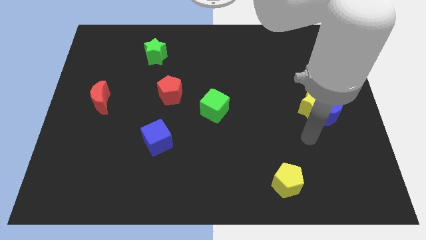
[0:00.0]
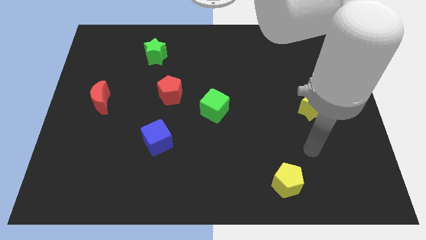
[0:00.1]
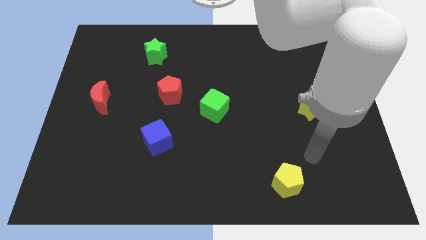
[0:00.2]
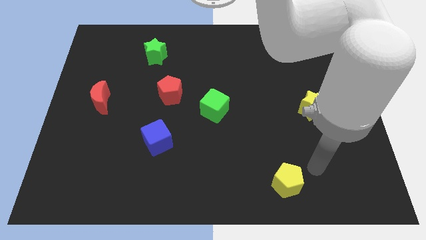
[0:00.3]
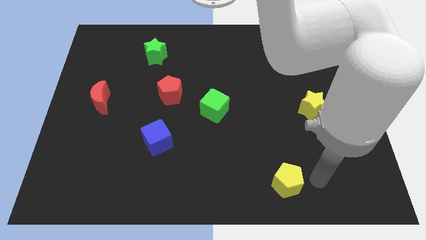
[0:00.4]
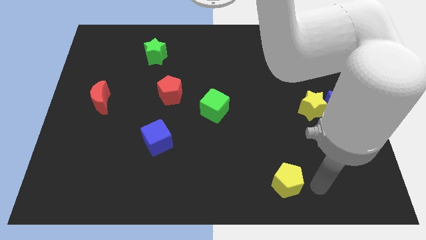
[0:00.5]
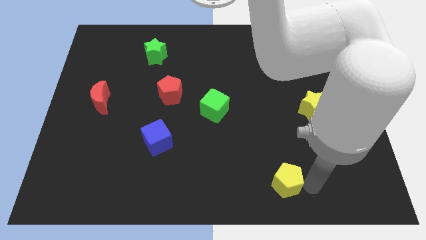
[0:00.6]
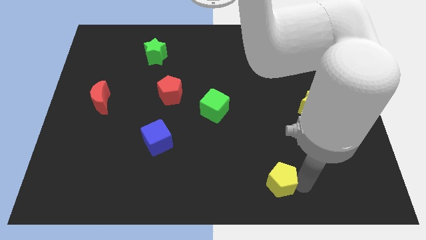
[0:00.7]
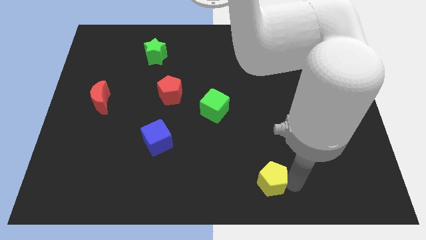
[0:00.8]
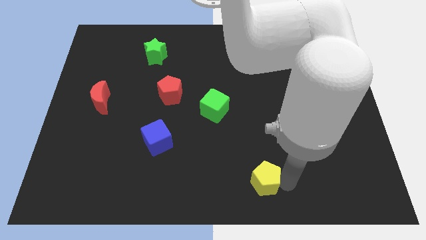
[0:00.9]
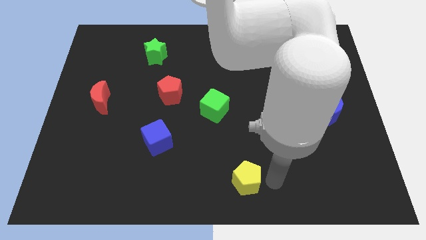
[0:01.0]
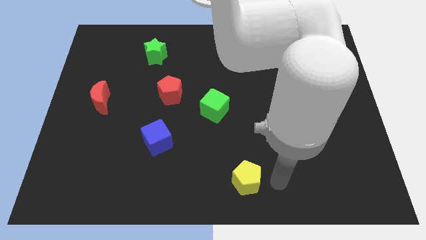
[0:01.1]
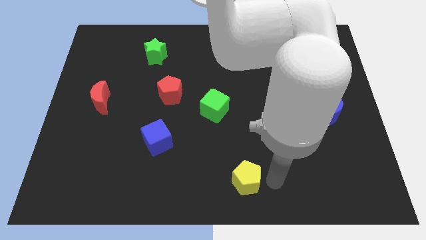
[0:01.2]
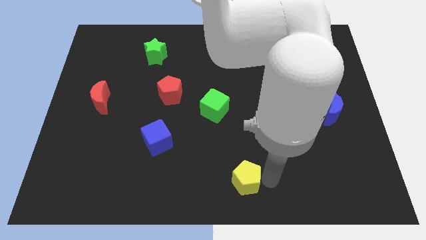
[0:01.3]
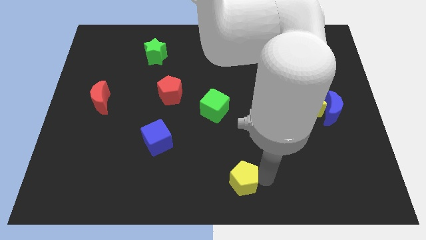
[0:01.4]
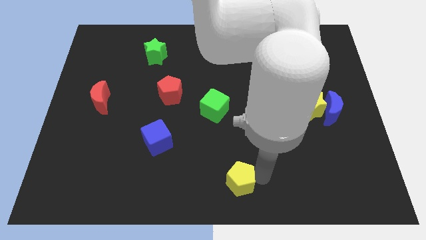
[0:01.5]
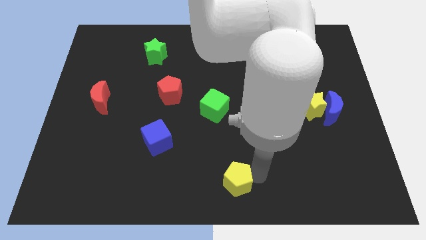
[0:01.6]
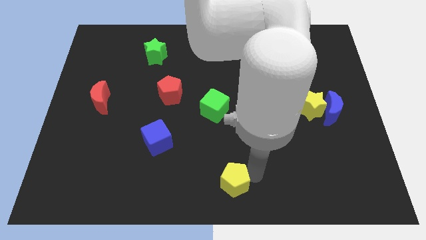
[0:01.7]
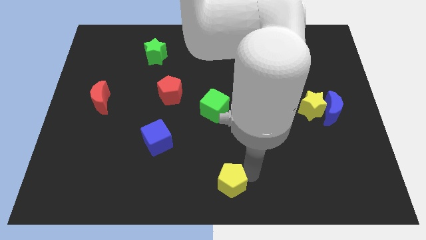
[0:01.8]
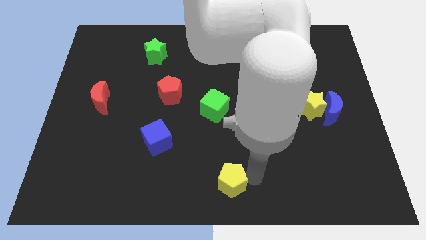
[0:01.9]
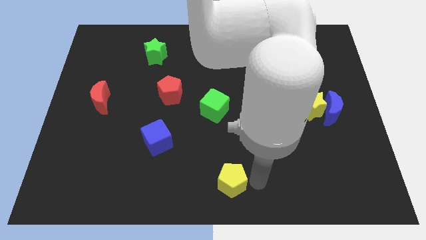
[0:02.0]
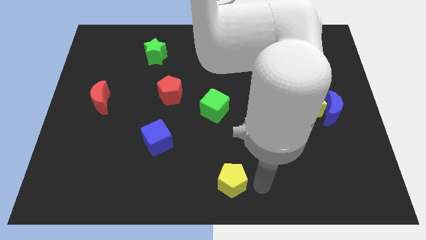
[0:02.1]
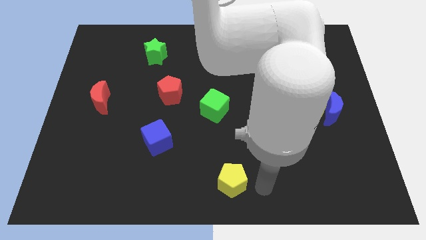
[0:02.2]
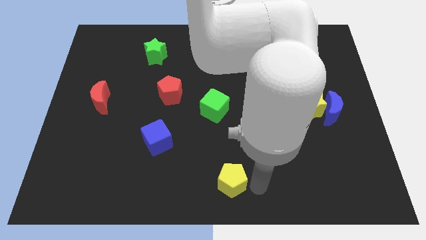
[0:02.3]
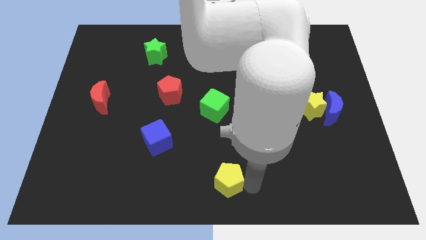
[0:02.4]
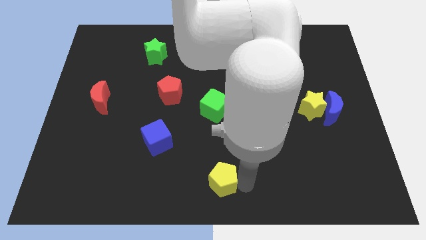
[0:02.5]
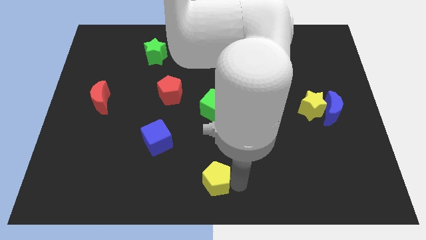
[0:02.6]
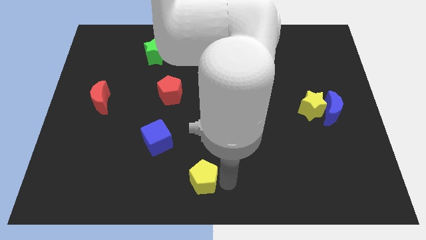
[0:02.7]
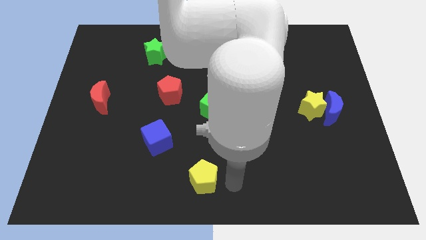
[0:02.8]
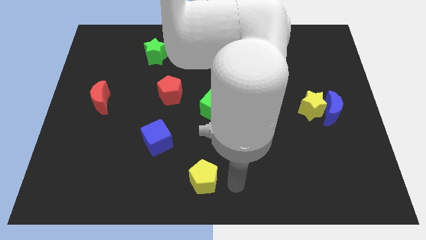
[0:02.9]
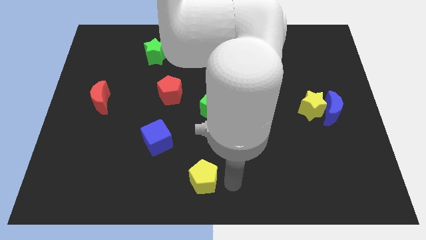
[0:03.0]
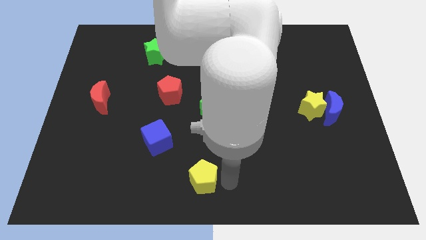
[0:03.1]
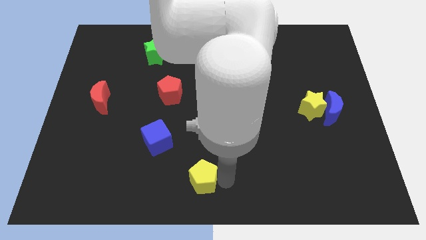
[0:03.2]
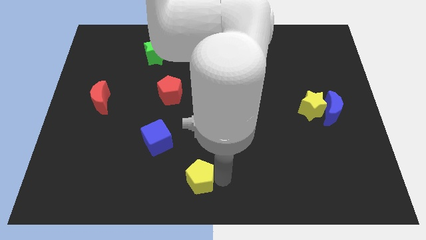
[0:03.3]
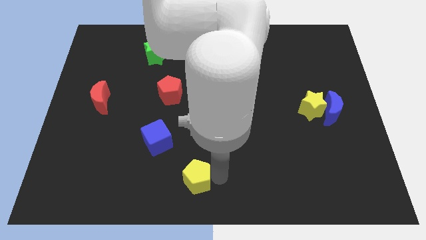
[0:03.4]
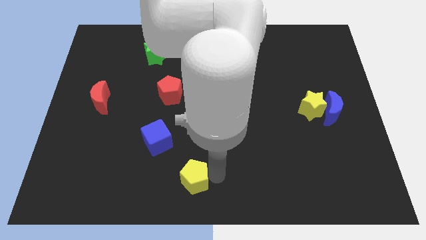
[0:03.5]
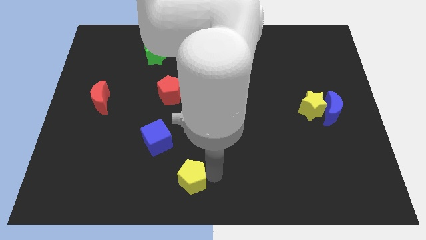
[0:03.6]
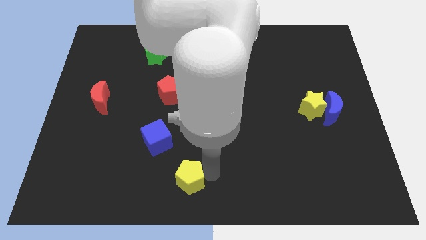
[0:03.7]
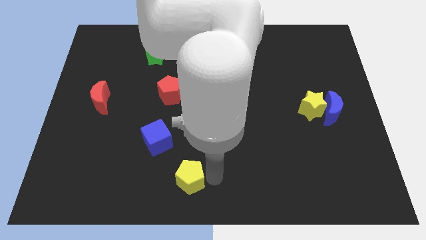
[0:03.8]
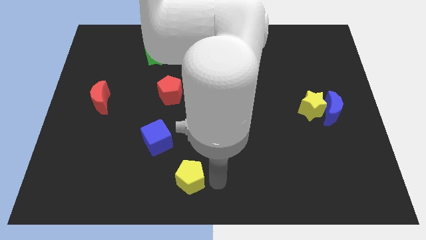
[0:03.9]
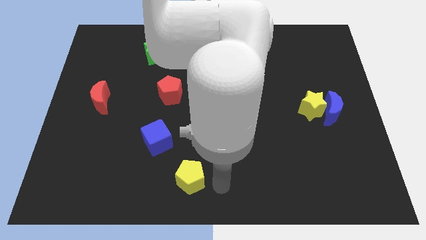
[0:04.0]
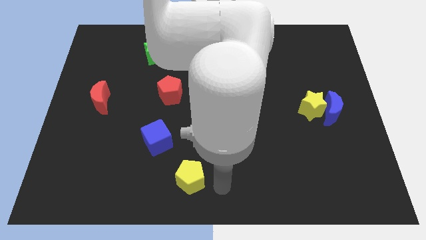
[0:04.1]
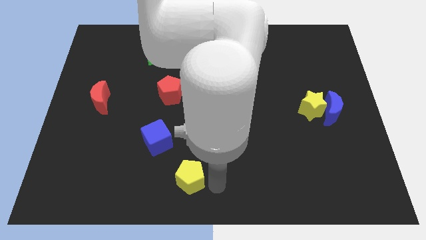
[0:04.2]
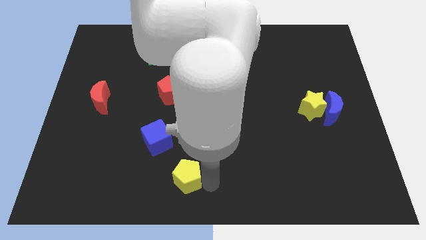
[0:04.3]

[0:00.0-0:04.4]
move the yellow pentagon to the left

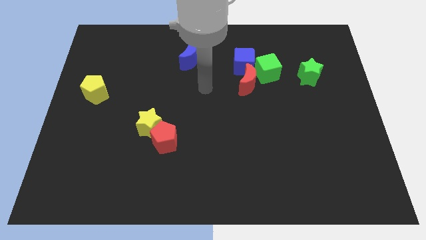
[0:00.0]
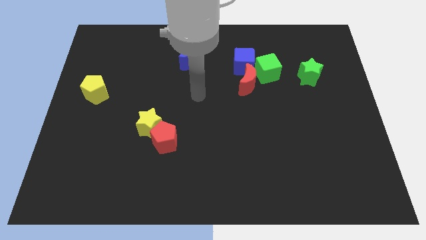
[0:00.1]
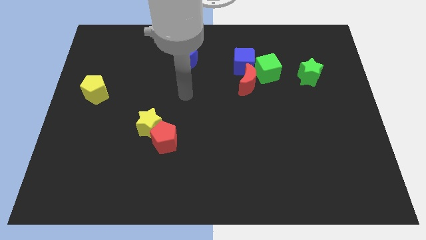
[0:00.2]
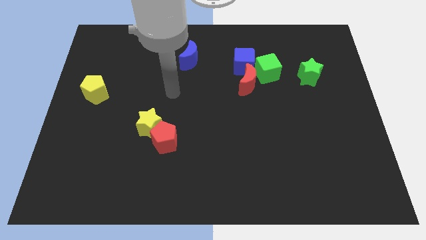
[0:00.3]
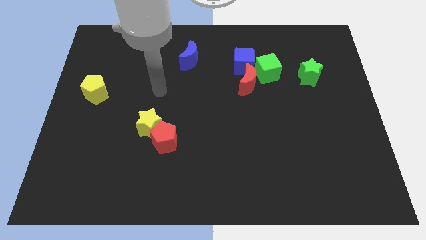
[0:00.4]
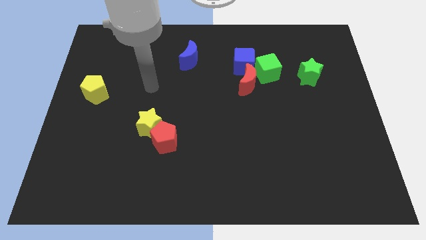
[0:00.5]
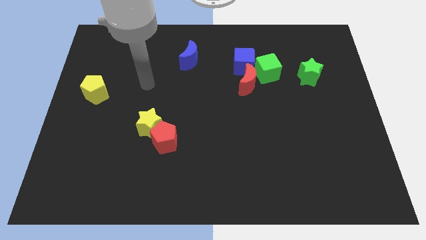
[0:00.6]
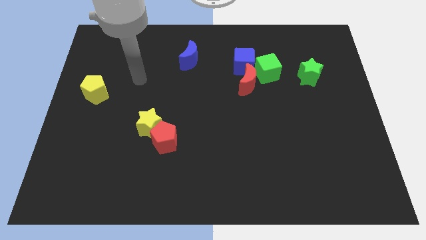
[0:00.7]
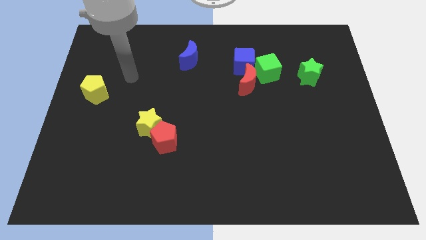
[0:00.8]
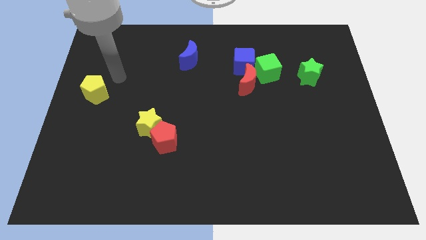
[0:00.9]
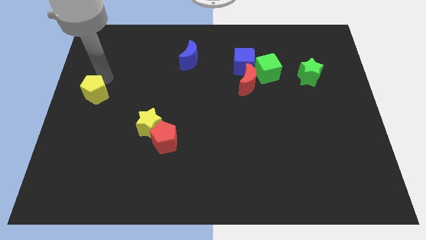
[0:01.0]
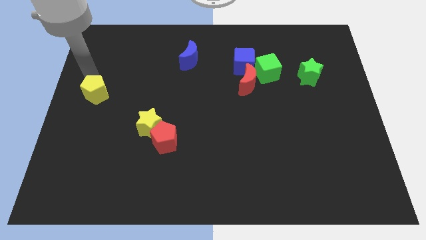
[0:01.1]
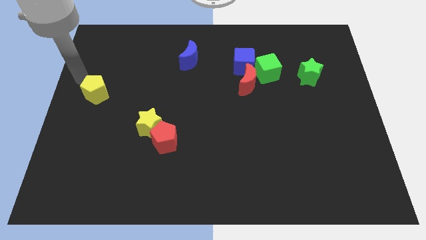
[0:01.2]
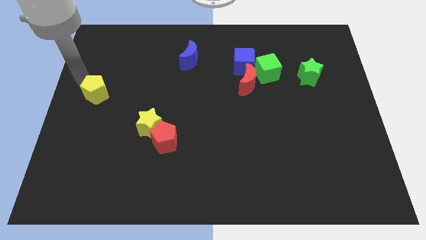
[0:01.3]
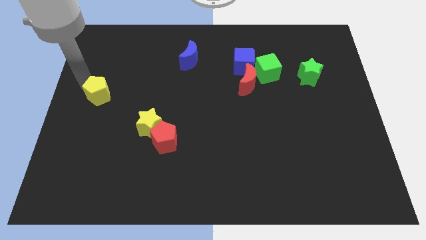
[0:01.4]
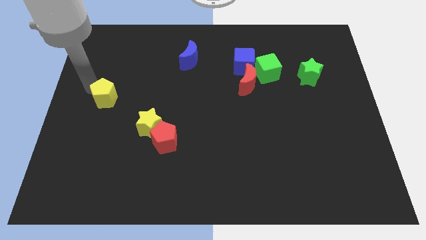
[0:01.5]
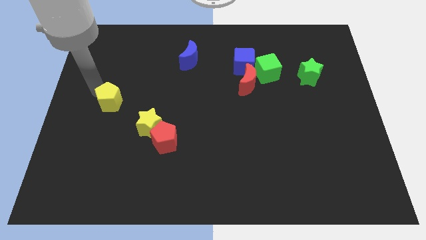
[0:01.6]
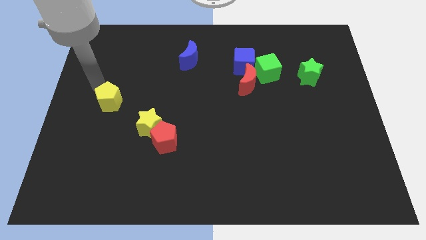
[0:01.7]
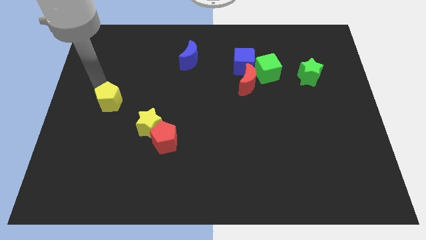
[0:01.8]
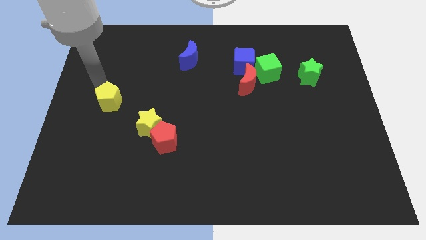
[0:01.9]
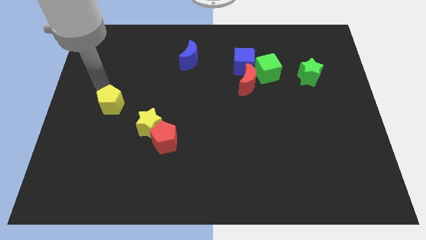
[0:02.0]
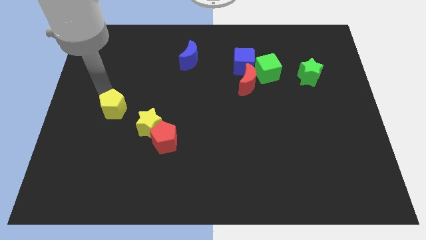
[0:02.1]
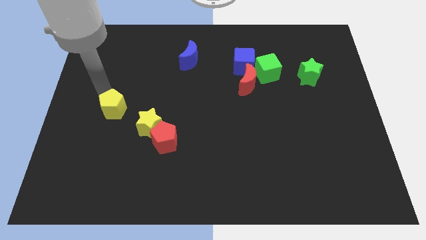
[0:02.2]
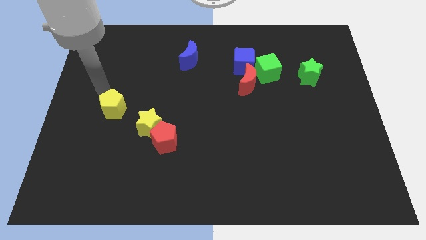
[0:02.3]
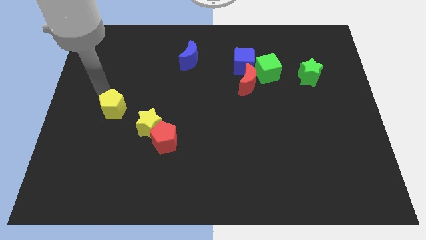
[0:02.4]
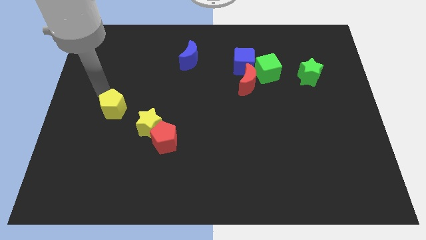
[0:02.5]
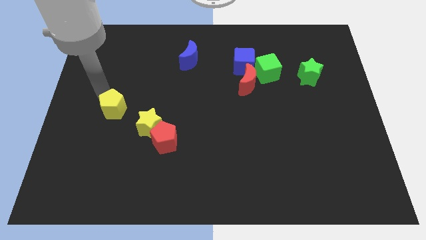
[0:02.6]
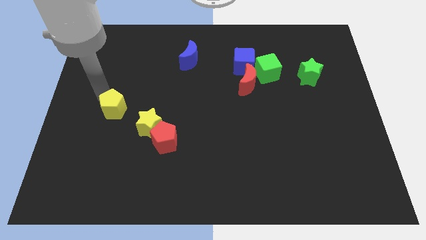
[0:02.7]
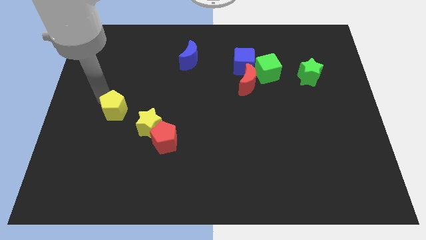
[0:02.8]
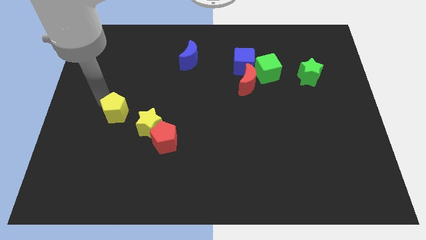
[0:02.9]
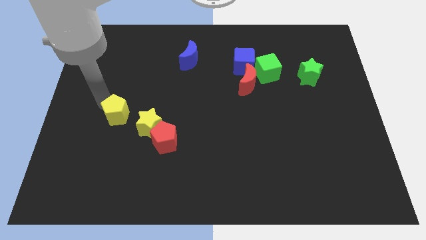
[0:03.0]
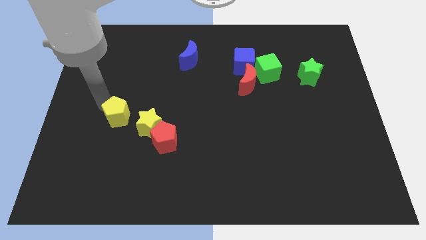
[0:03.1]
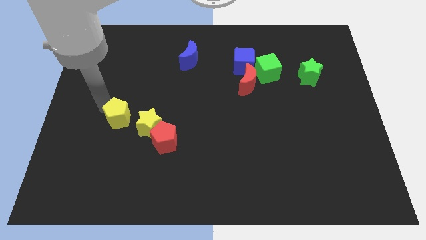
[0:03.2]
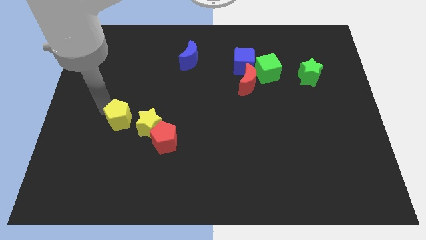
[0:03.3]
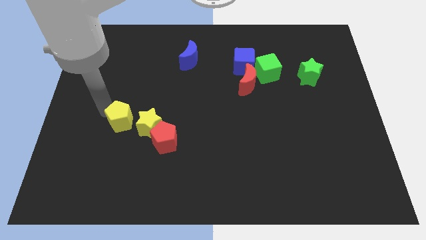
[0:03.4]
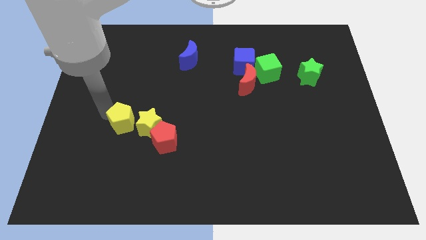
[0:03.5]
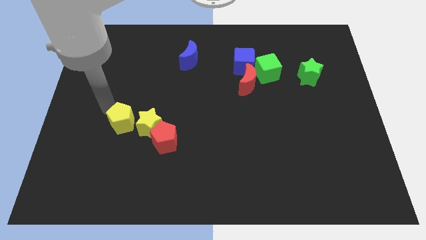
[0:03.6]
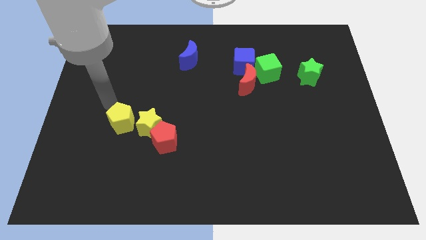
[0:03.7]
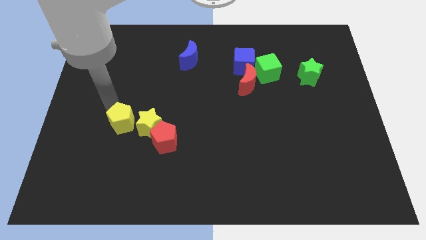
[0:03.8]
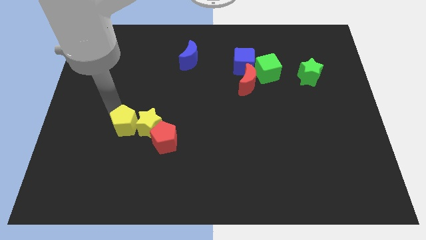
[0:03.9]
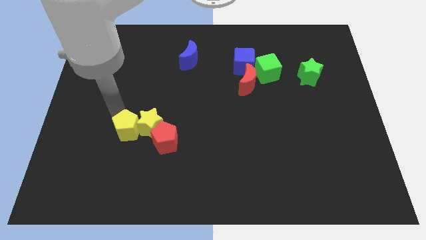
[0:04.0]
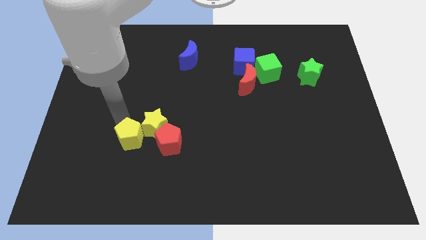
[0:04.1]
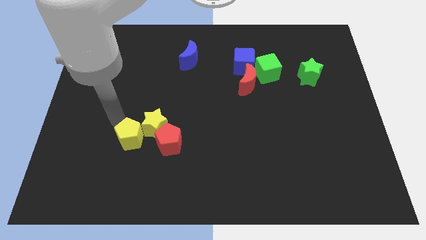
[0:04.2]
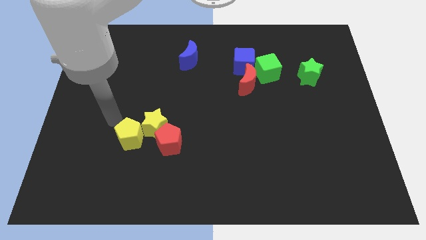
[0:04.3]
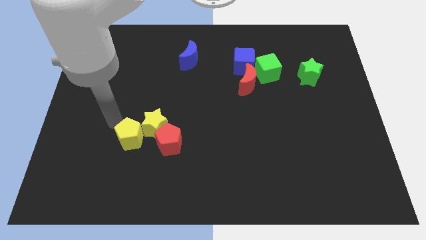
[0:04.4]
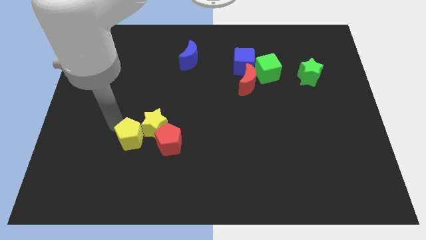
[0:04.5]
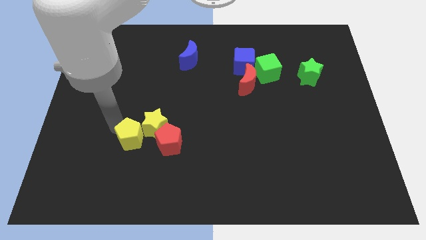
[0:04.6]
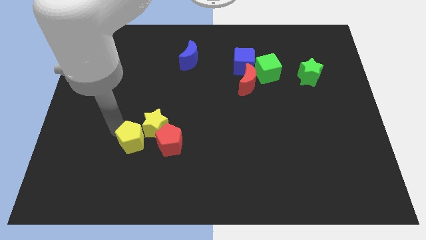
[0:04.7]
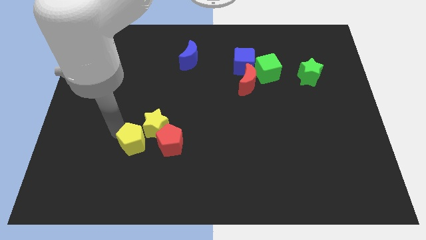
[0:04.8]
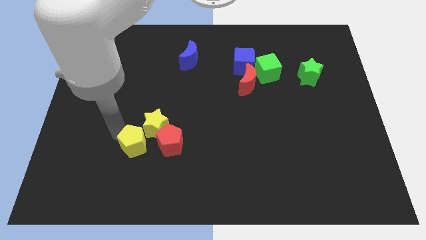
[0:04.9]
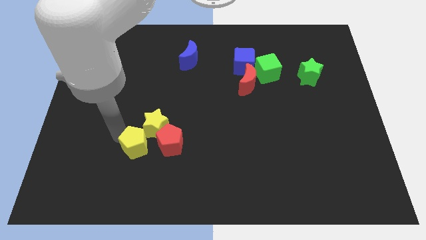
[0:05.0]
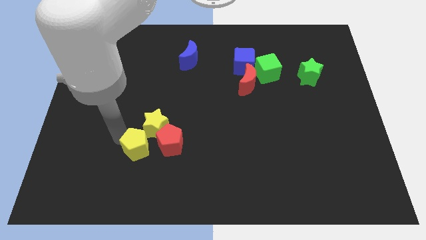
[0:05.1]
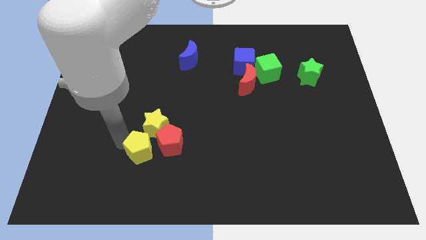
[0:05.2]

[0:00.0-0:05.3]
slide the yellow pentagon down and then right
